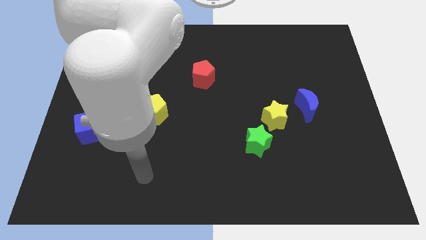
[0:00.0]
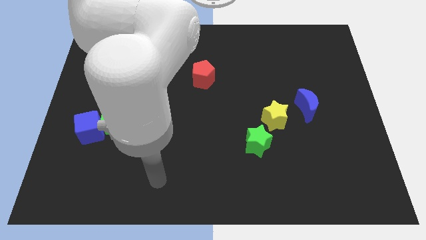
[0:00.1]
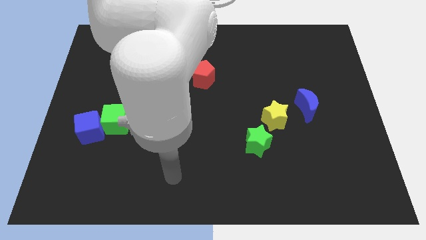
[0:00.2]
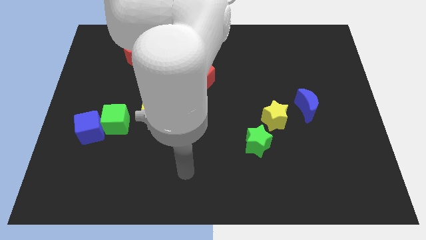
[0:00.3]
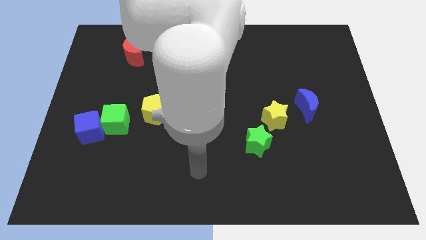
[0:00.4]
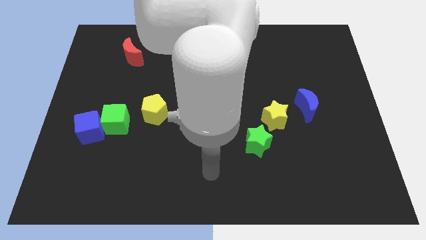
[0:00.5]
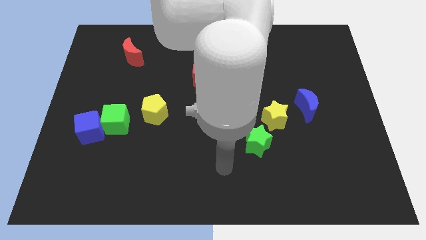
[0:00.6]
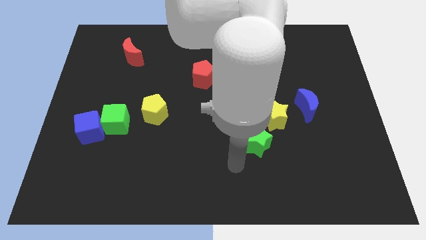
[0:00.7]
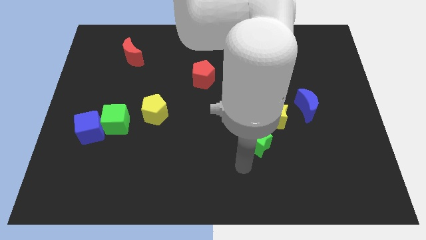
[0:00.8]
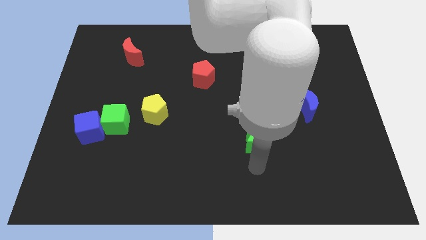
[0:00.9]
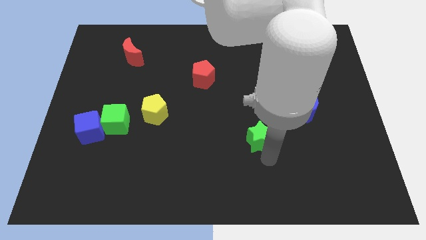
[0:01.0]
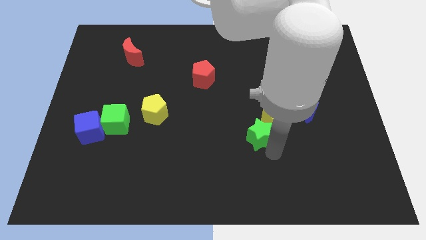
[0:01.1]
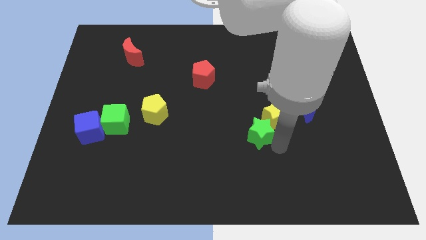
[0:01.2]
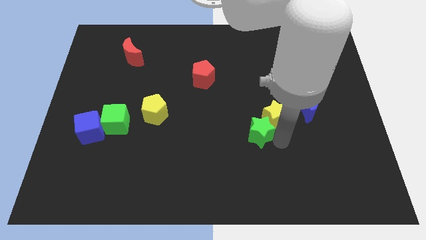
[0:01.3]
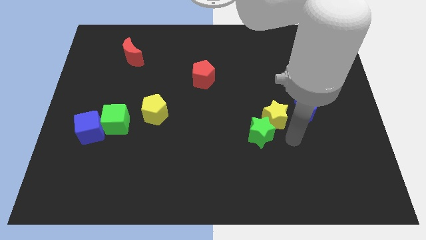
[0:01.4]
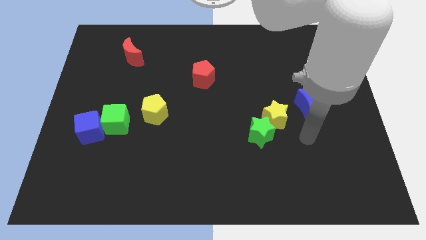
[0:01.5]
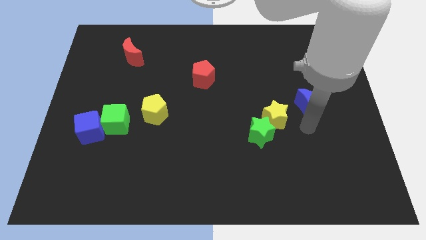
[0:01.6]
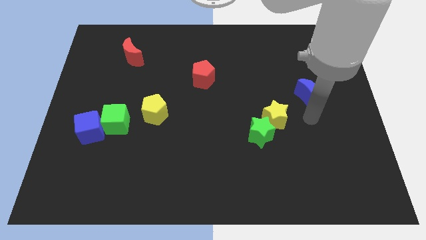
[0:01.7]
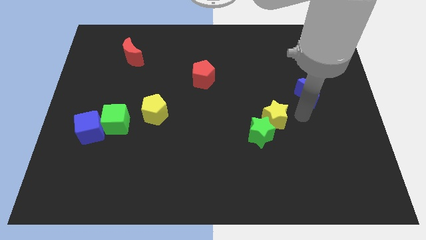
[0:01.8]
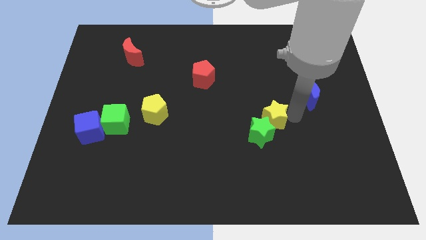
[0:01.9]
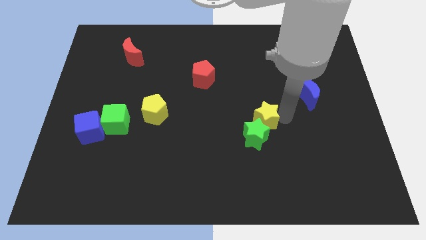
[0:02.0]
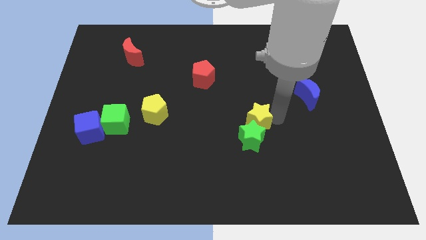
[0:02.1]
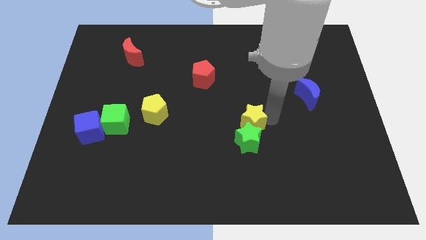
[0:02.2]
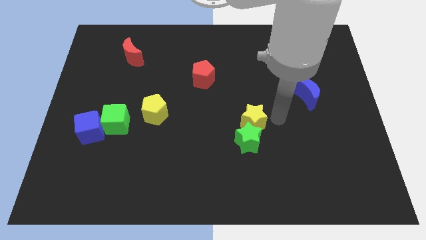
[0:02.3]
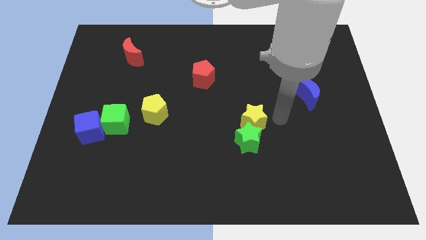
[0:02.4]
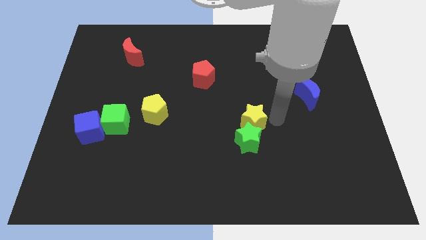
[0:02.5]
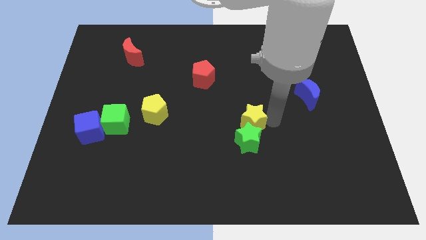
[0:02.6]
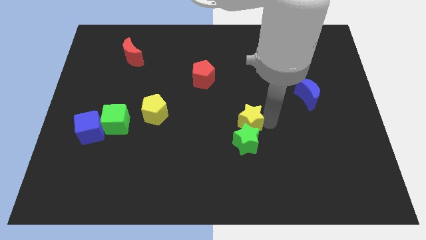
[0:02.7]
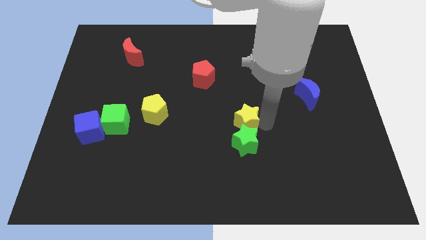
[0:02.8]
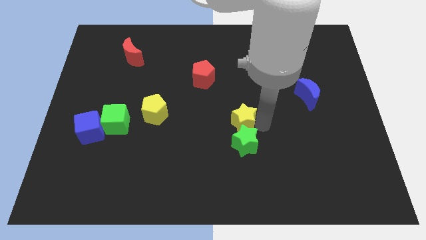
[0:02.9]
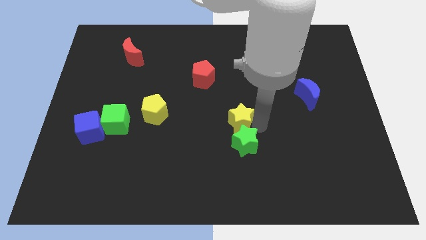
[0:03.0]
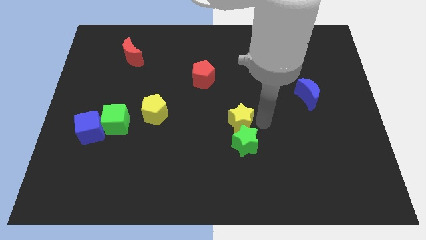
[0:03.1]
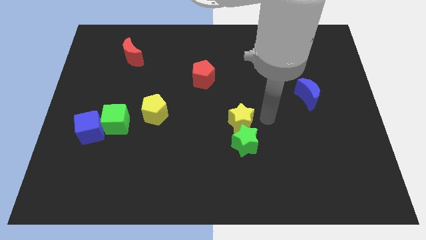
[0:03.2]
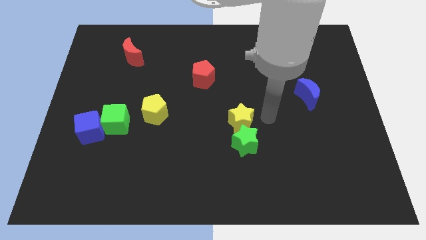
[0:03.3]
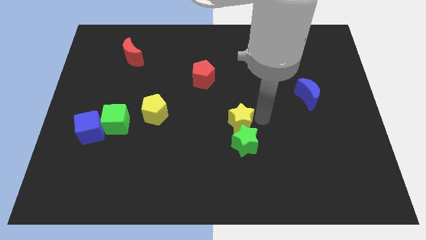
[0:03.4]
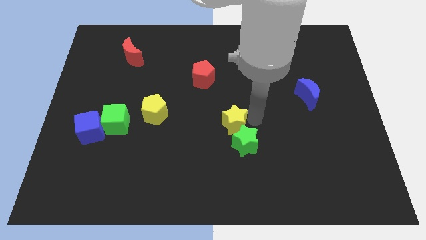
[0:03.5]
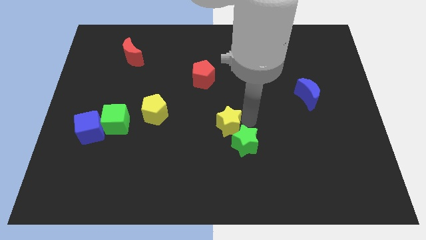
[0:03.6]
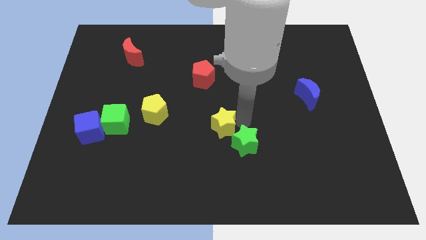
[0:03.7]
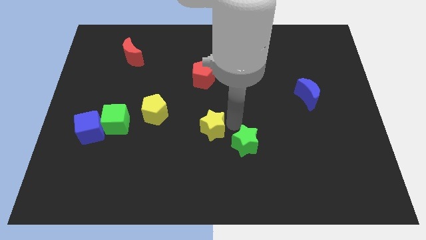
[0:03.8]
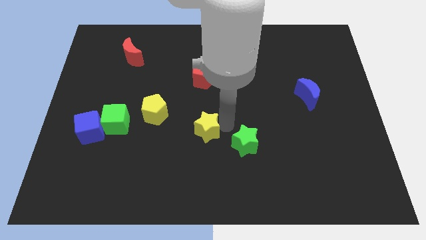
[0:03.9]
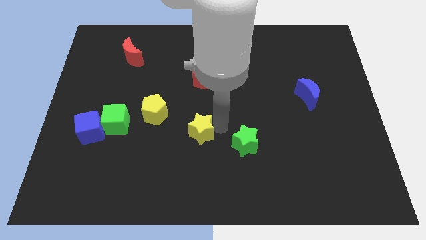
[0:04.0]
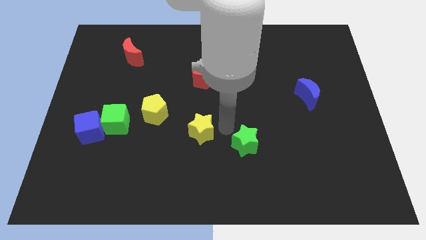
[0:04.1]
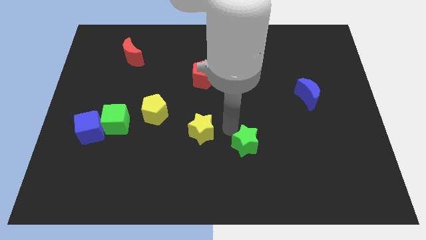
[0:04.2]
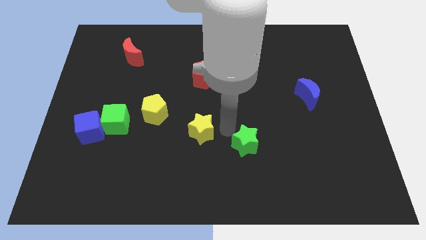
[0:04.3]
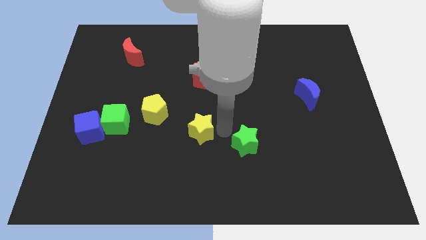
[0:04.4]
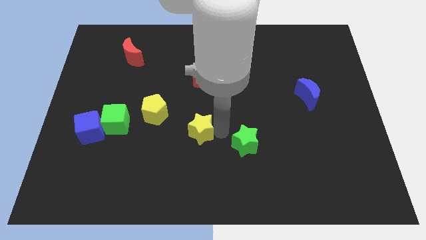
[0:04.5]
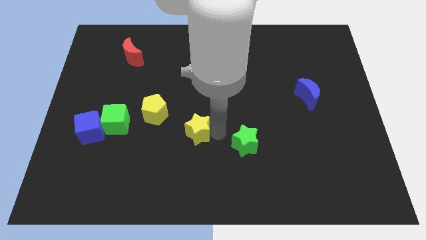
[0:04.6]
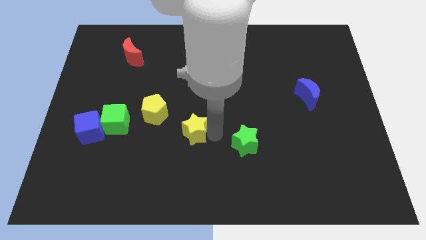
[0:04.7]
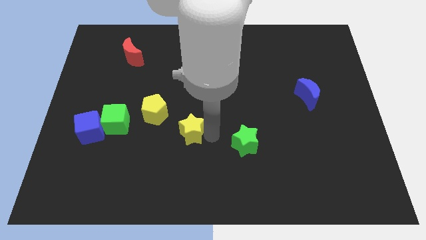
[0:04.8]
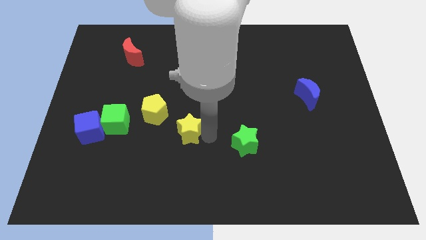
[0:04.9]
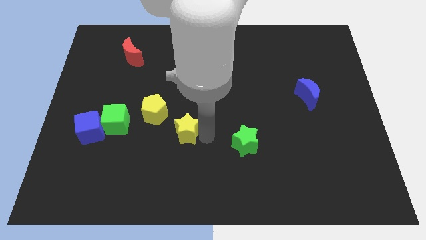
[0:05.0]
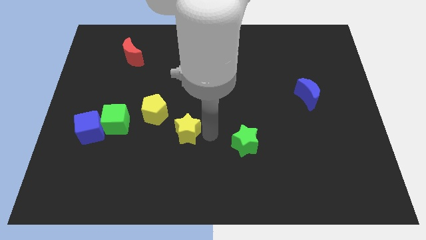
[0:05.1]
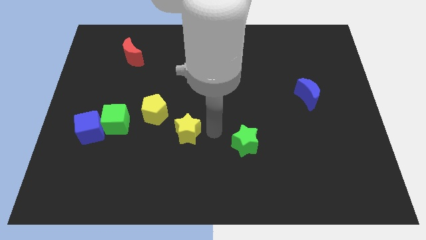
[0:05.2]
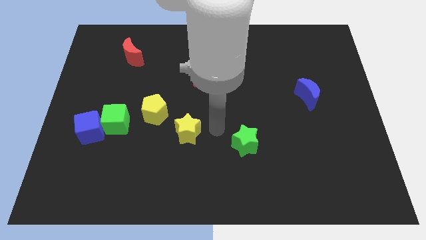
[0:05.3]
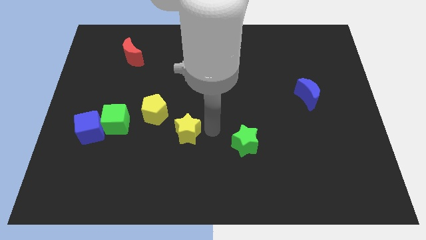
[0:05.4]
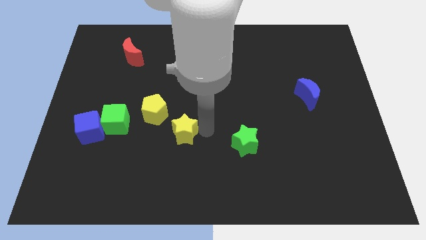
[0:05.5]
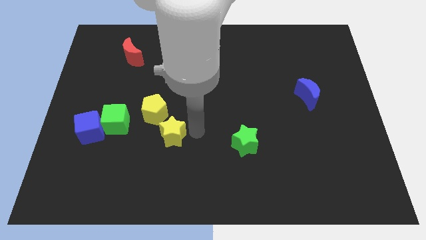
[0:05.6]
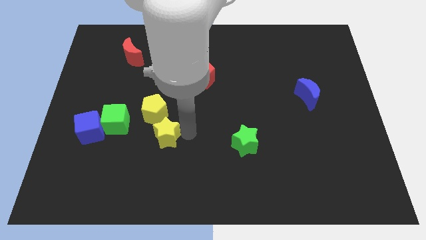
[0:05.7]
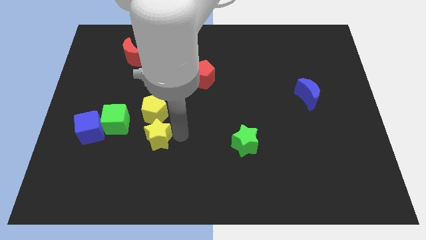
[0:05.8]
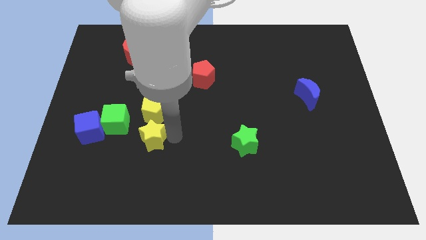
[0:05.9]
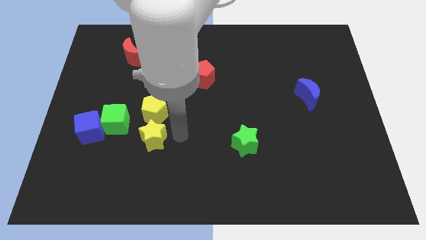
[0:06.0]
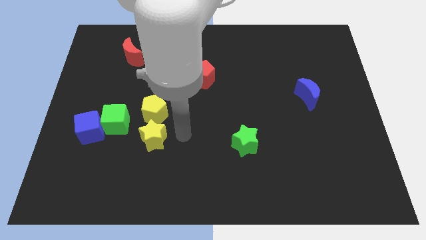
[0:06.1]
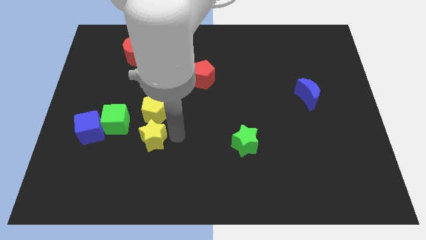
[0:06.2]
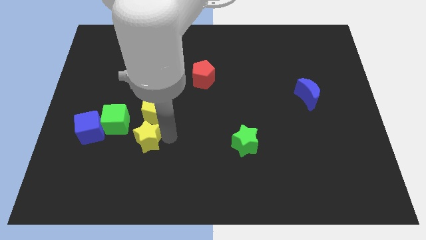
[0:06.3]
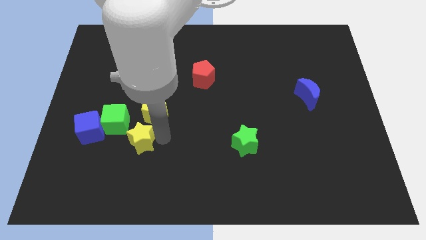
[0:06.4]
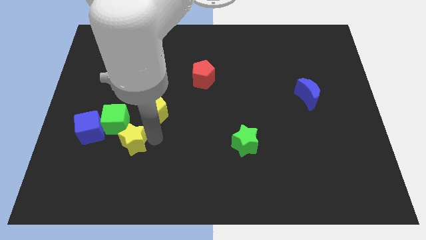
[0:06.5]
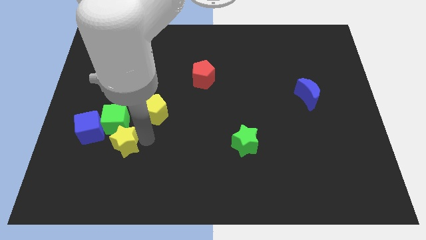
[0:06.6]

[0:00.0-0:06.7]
push the yellow star diagonally down and to the right of the blue cube
